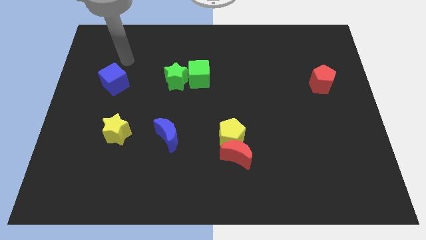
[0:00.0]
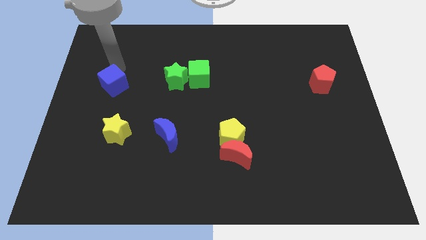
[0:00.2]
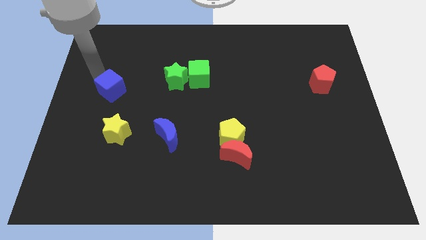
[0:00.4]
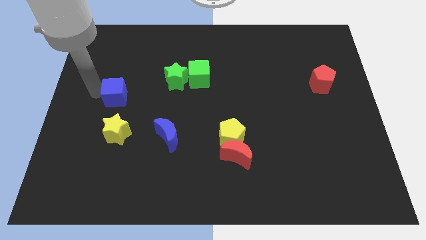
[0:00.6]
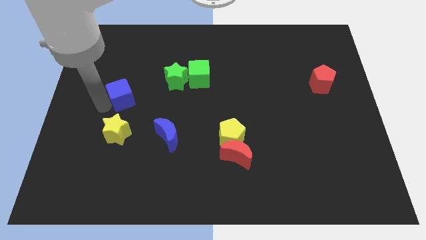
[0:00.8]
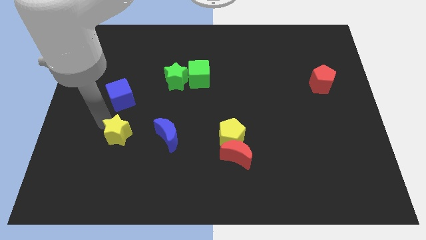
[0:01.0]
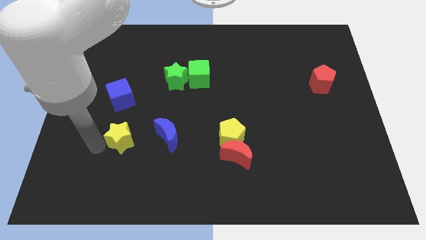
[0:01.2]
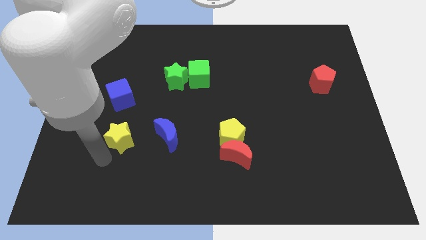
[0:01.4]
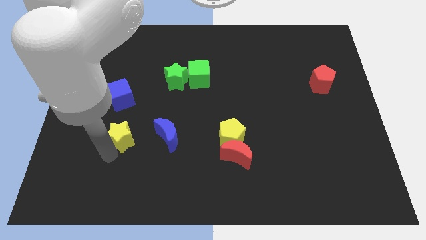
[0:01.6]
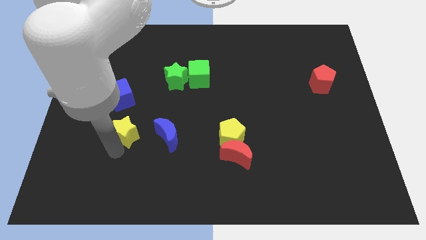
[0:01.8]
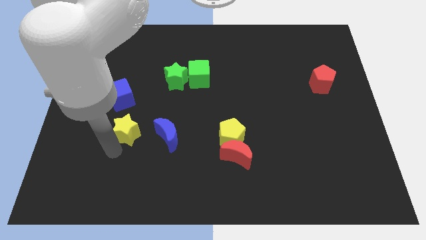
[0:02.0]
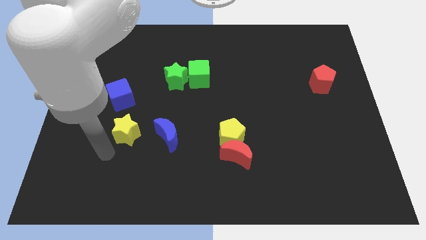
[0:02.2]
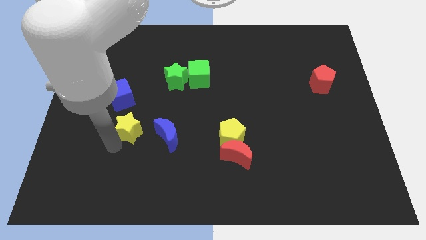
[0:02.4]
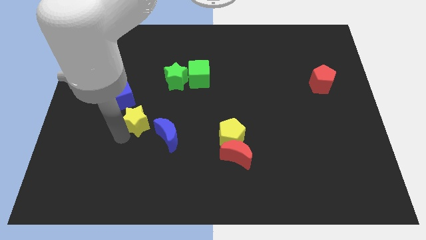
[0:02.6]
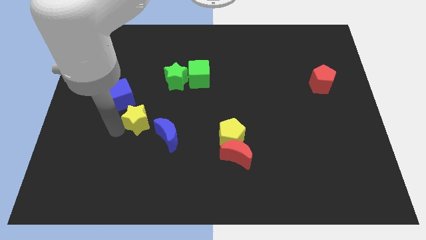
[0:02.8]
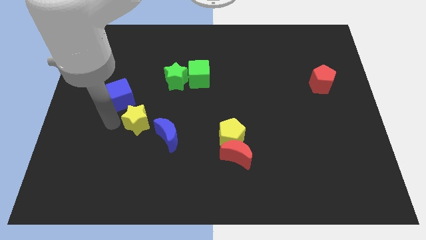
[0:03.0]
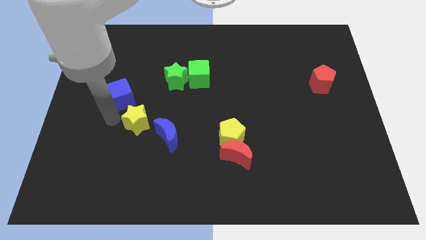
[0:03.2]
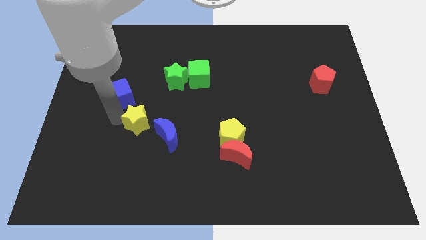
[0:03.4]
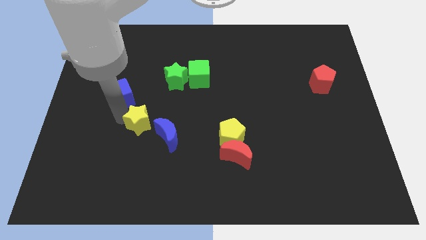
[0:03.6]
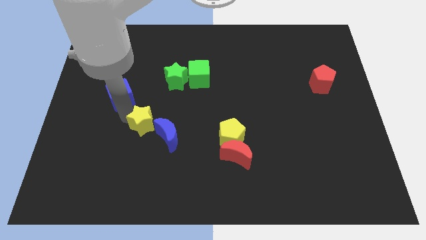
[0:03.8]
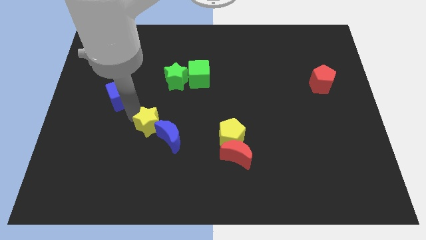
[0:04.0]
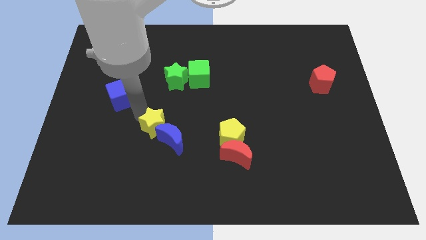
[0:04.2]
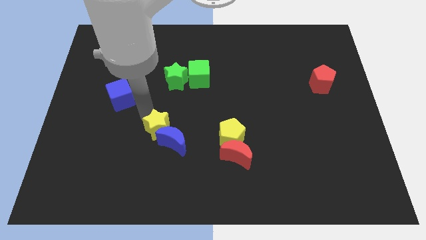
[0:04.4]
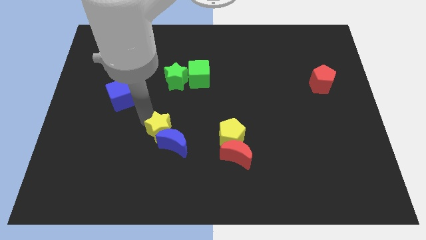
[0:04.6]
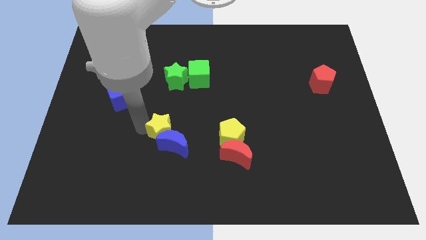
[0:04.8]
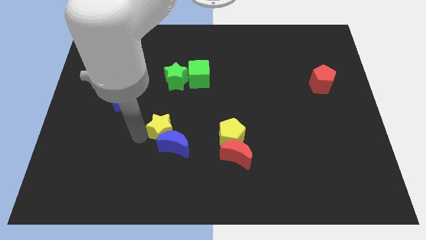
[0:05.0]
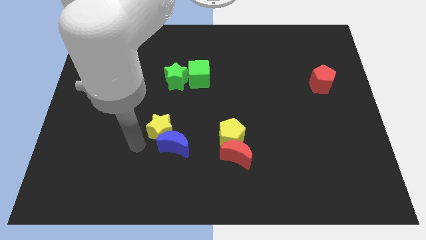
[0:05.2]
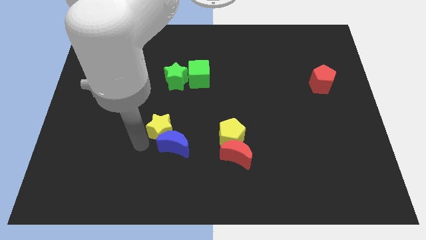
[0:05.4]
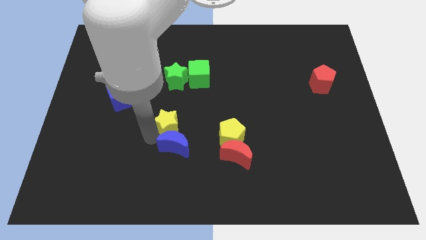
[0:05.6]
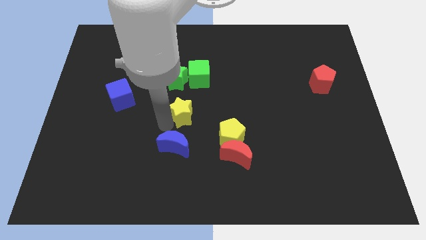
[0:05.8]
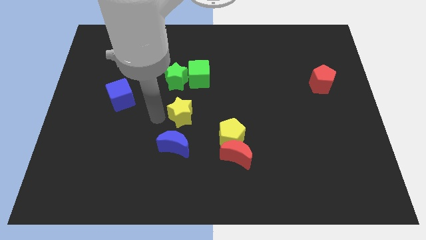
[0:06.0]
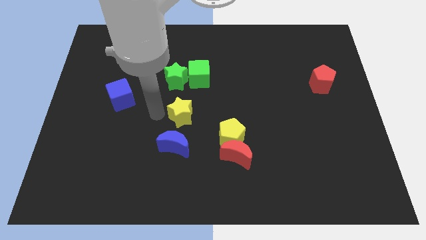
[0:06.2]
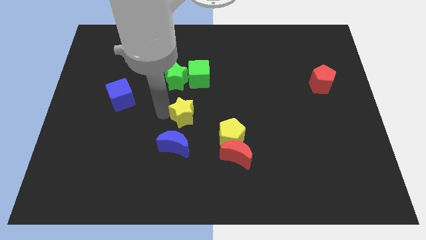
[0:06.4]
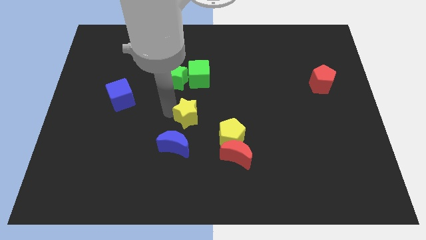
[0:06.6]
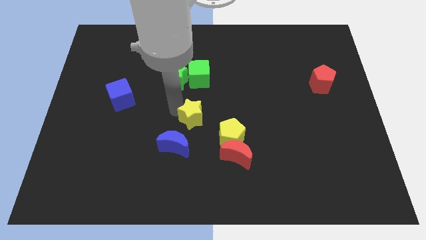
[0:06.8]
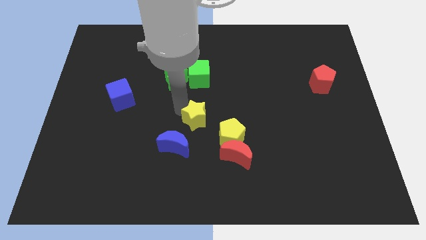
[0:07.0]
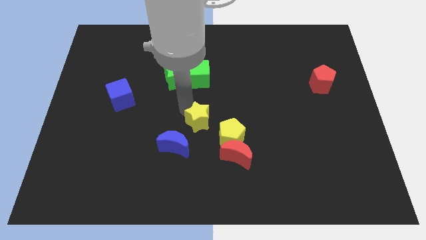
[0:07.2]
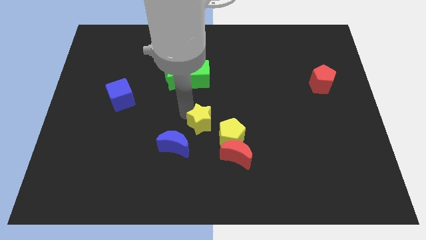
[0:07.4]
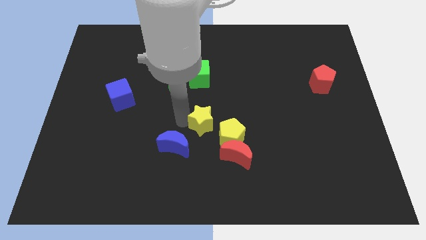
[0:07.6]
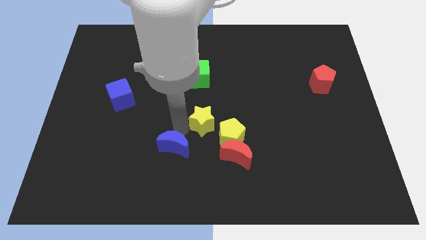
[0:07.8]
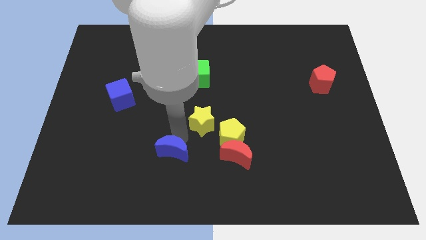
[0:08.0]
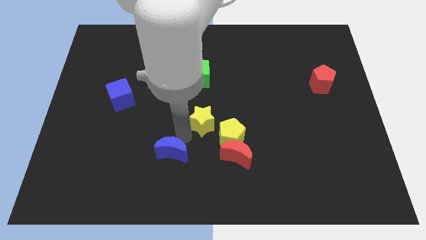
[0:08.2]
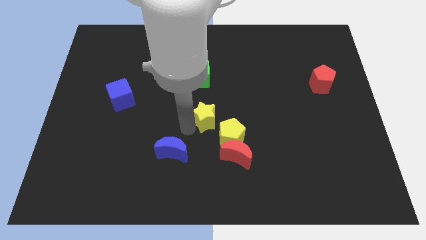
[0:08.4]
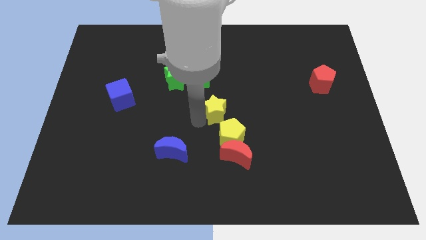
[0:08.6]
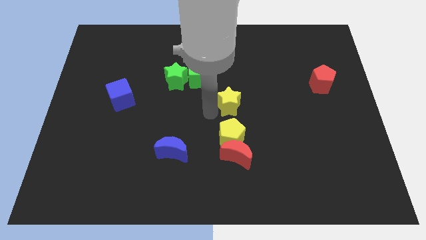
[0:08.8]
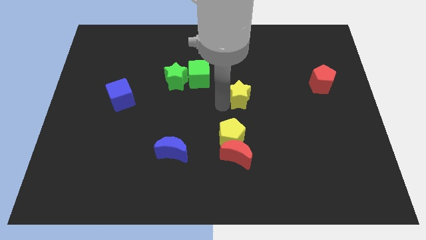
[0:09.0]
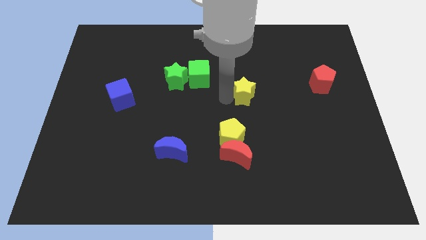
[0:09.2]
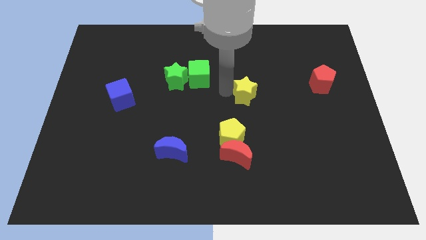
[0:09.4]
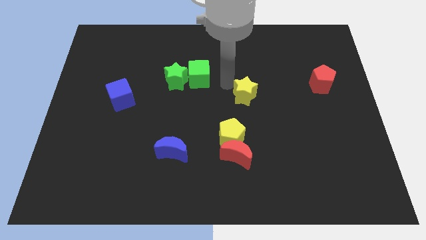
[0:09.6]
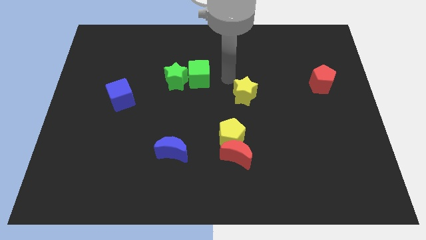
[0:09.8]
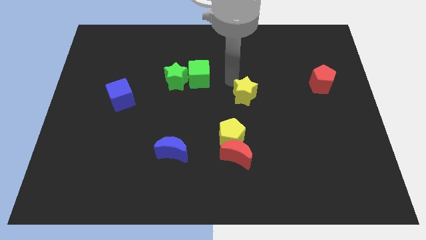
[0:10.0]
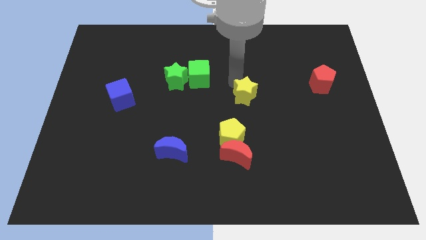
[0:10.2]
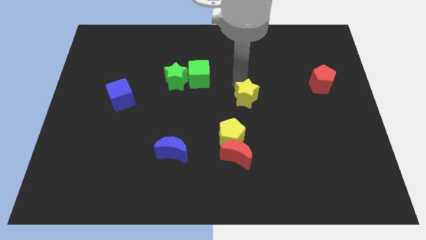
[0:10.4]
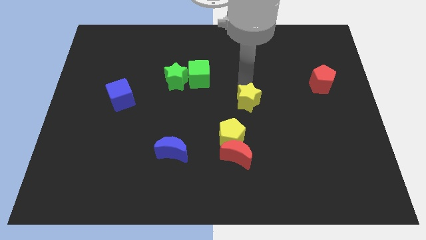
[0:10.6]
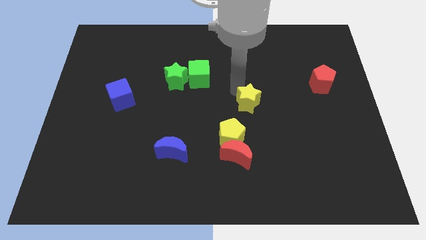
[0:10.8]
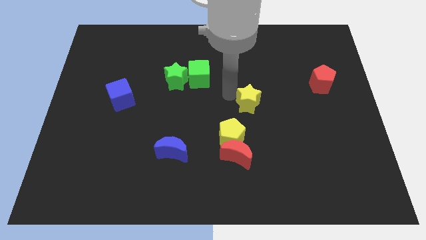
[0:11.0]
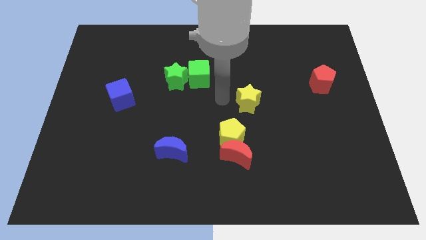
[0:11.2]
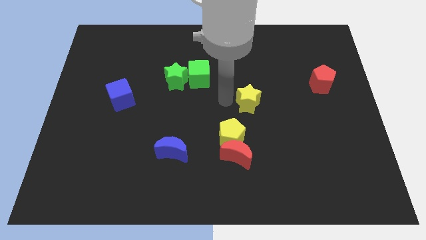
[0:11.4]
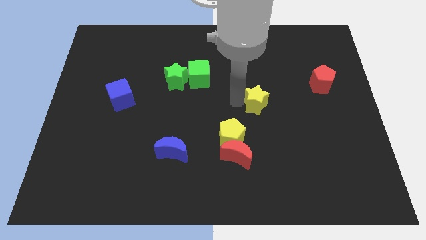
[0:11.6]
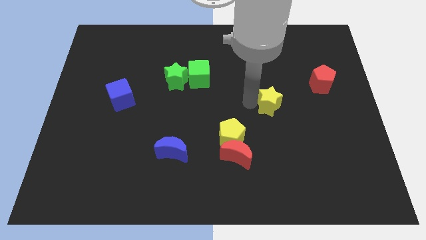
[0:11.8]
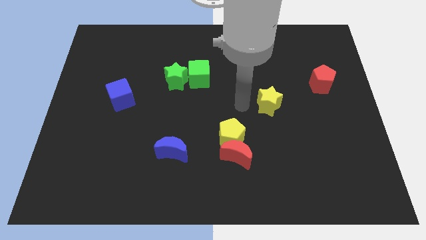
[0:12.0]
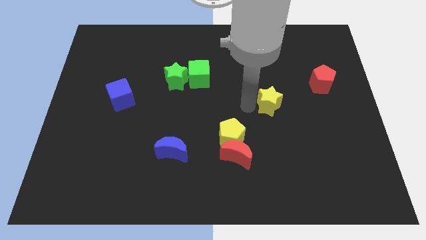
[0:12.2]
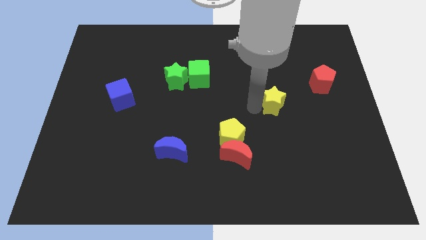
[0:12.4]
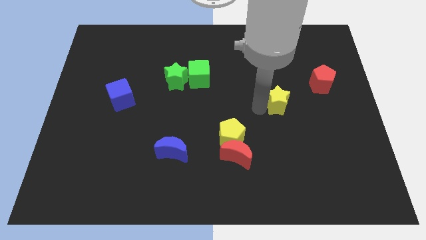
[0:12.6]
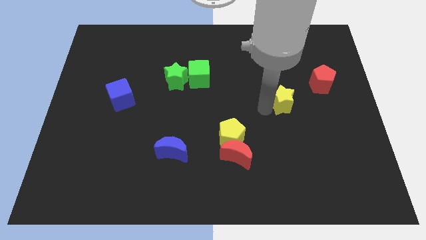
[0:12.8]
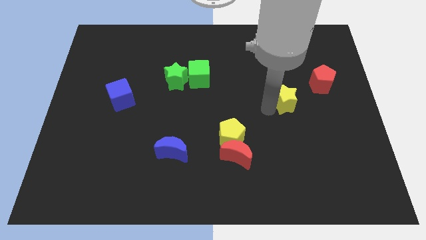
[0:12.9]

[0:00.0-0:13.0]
push the yellow star to the bottom left side of the red pentagon
